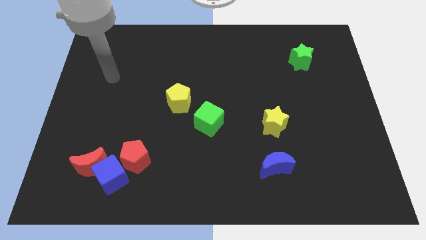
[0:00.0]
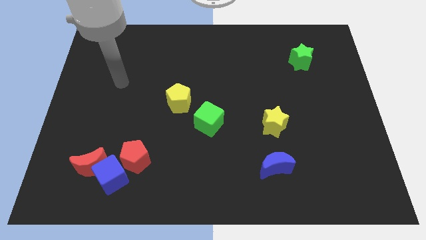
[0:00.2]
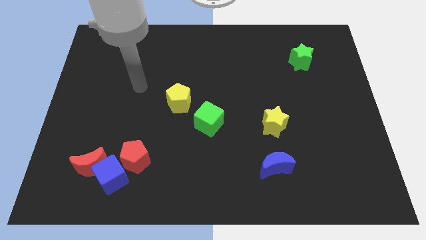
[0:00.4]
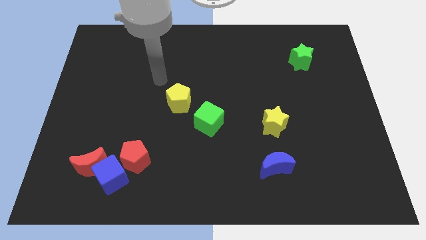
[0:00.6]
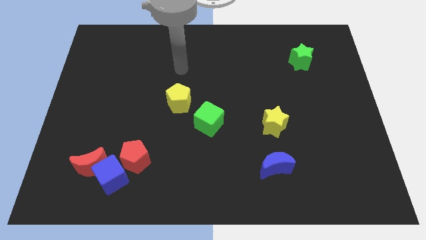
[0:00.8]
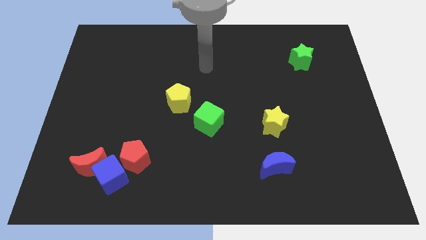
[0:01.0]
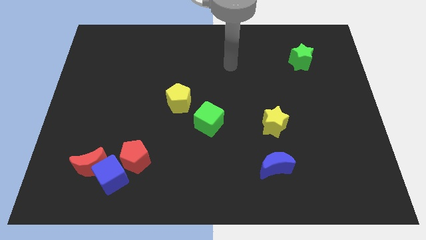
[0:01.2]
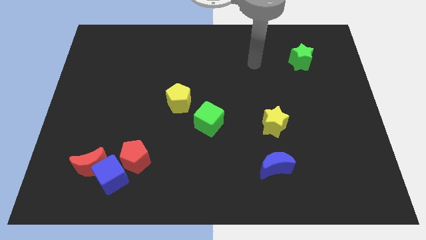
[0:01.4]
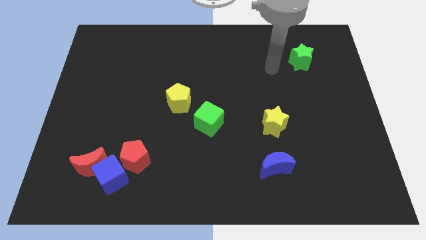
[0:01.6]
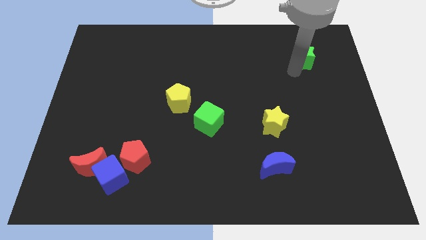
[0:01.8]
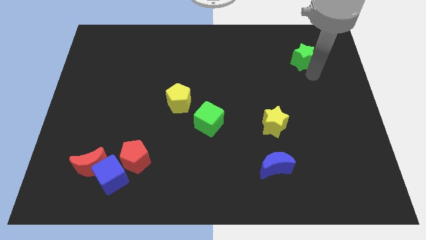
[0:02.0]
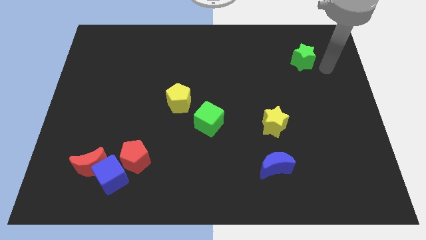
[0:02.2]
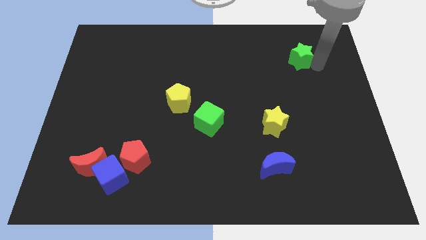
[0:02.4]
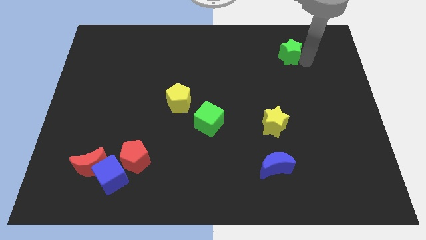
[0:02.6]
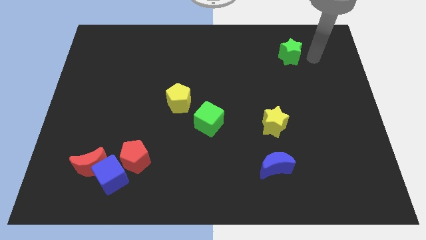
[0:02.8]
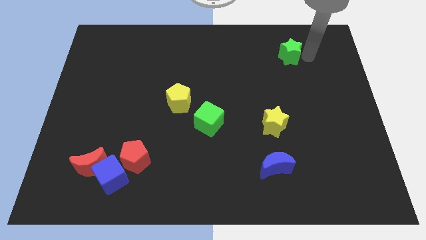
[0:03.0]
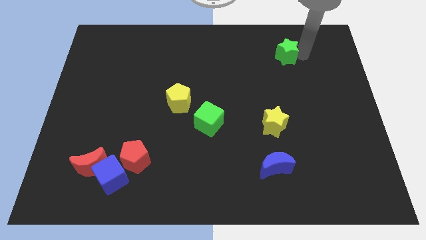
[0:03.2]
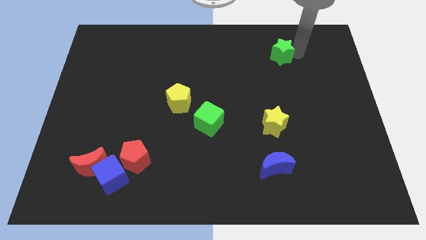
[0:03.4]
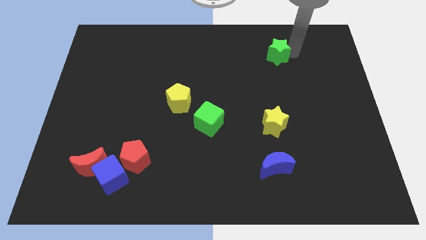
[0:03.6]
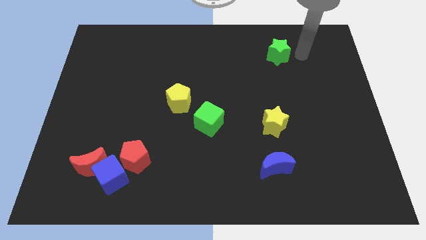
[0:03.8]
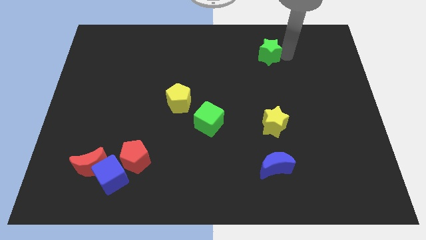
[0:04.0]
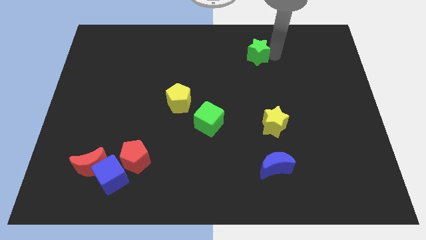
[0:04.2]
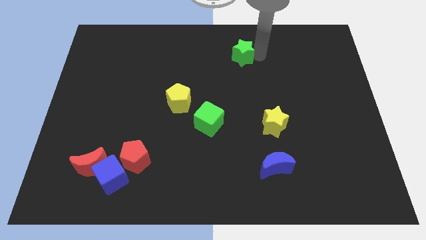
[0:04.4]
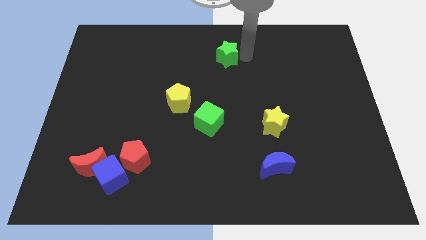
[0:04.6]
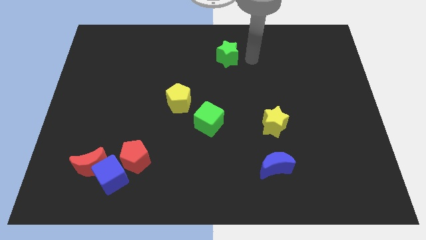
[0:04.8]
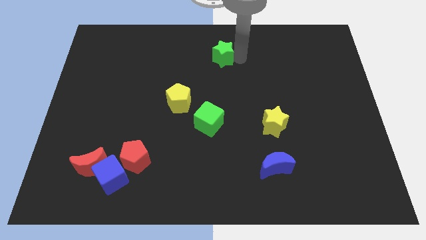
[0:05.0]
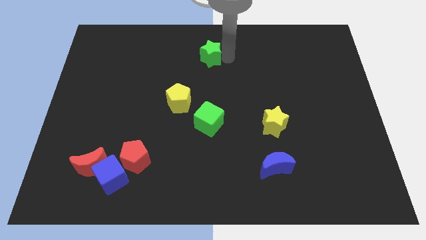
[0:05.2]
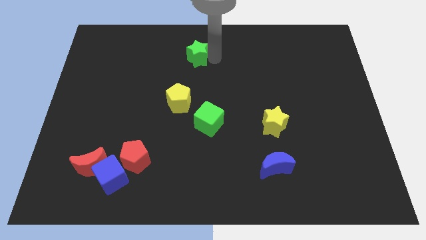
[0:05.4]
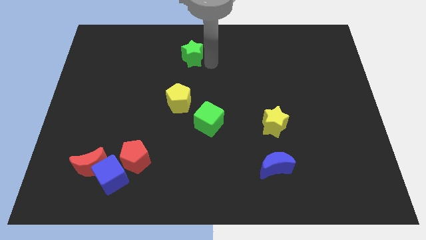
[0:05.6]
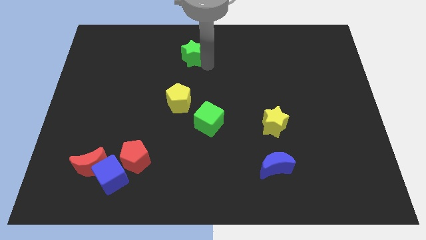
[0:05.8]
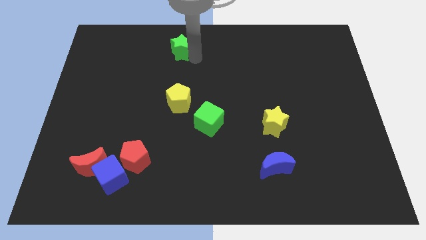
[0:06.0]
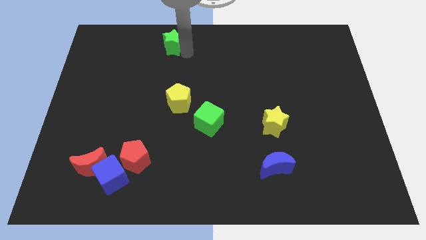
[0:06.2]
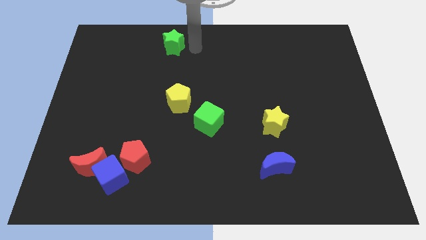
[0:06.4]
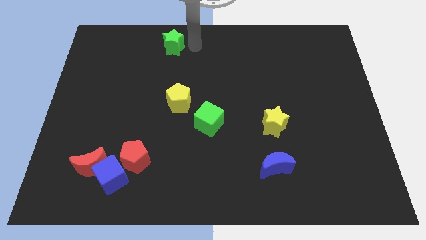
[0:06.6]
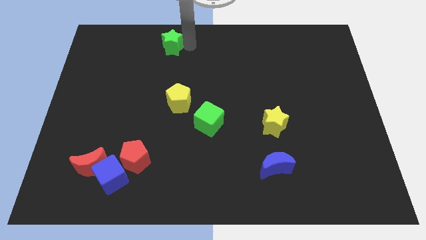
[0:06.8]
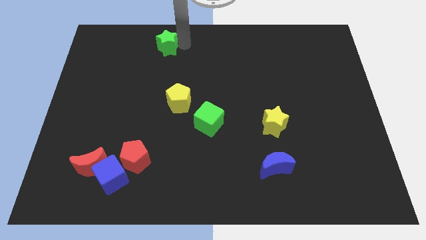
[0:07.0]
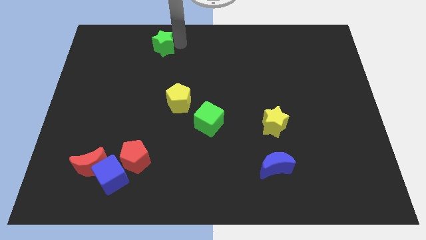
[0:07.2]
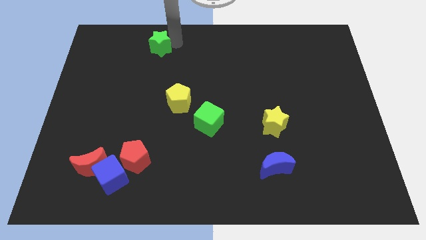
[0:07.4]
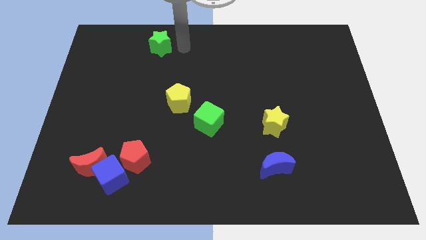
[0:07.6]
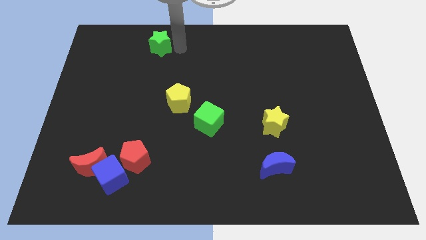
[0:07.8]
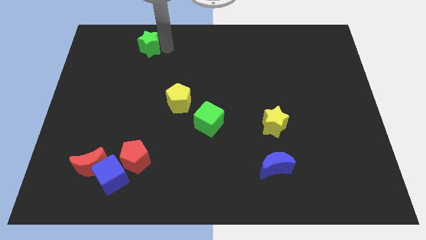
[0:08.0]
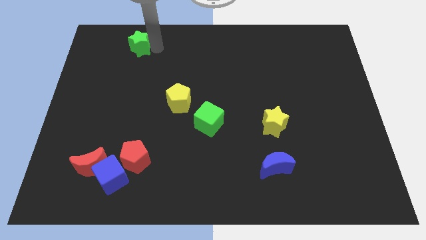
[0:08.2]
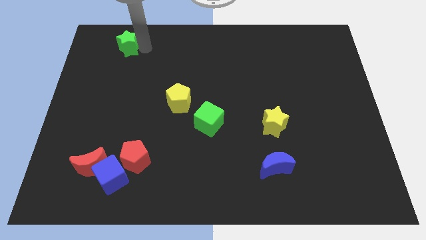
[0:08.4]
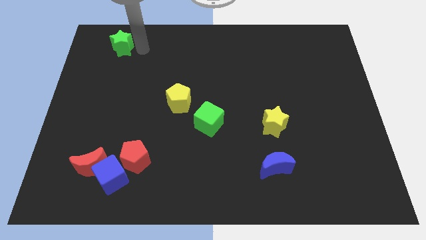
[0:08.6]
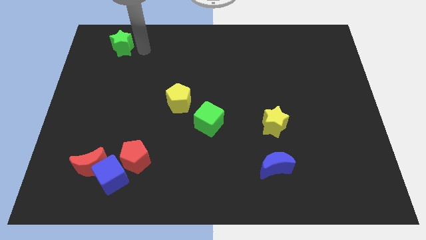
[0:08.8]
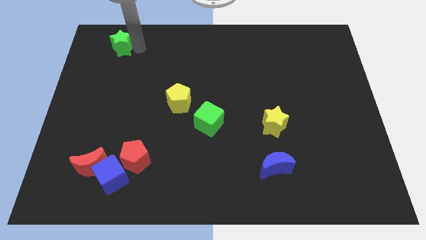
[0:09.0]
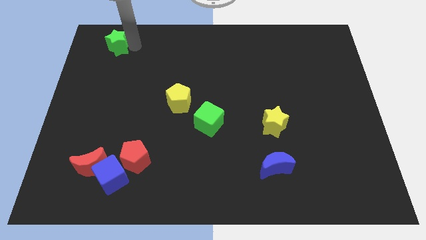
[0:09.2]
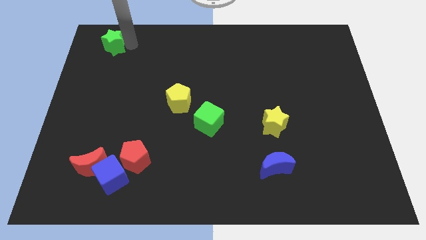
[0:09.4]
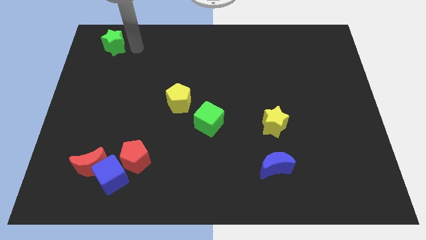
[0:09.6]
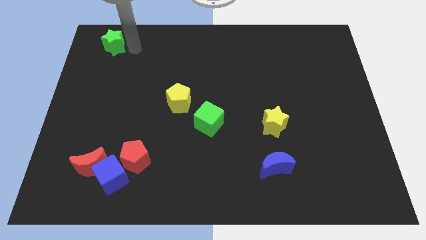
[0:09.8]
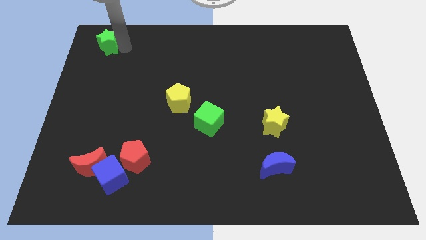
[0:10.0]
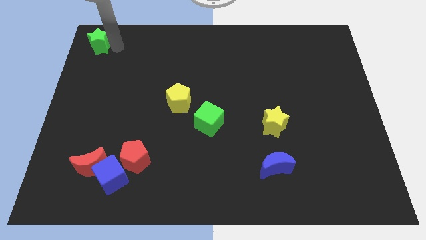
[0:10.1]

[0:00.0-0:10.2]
push the green star to the upper left corner
